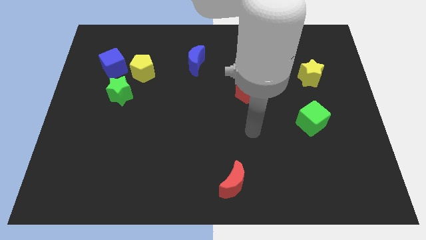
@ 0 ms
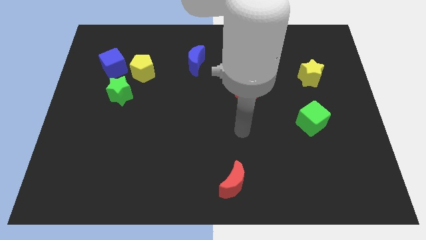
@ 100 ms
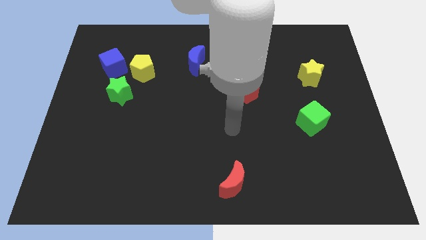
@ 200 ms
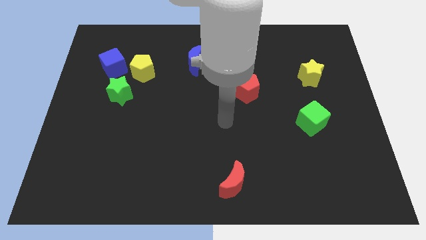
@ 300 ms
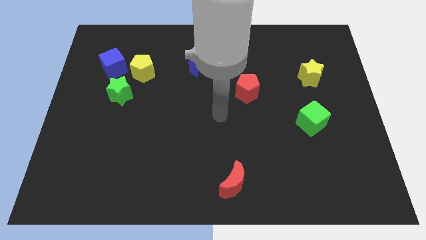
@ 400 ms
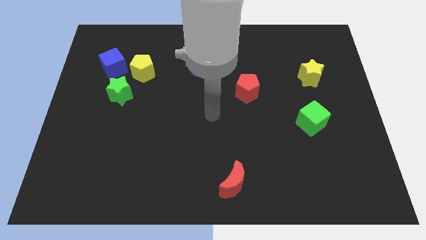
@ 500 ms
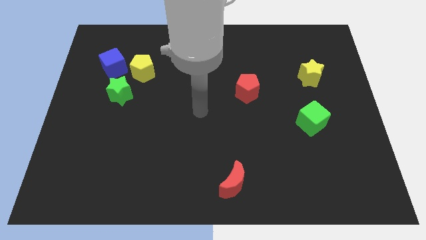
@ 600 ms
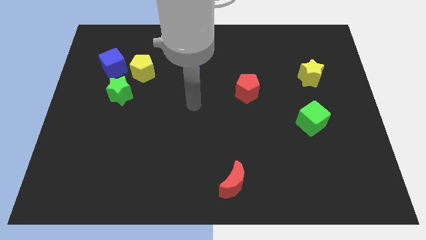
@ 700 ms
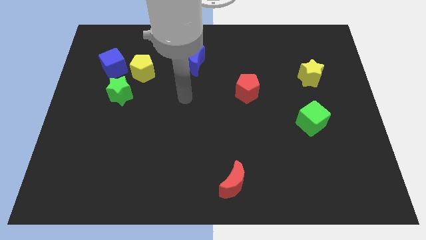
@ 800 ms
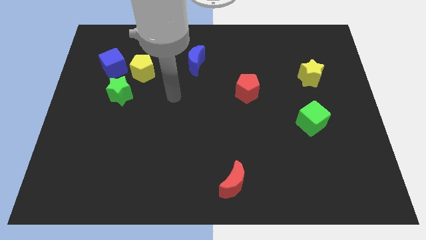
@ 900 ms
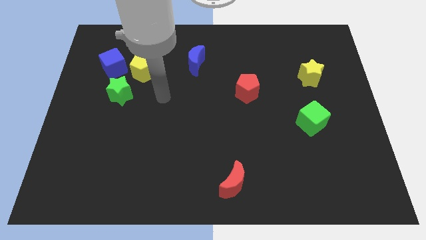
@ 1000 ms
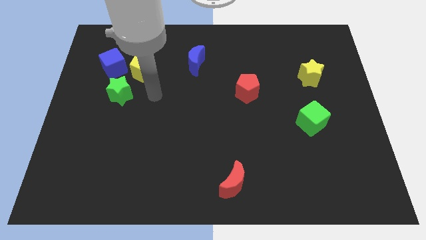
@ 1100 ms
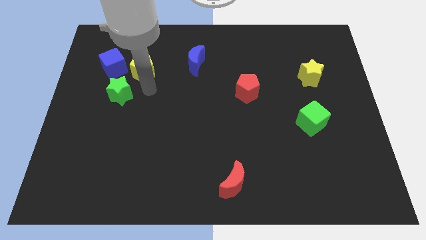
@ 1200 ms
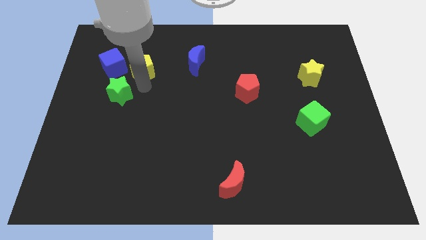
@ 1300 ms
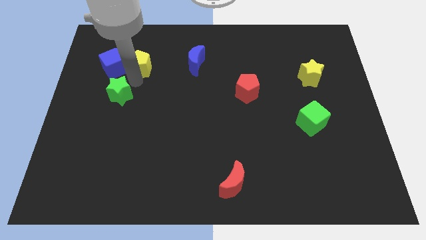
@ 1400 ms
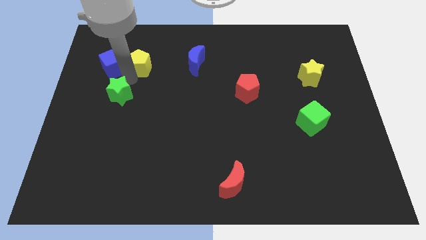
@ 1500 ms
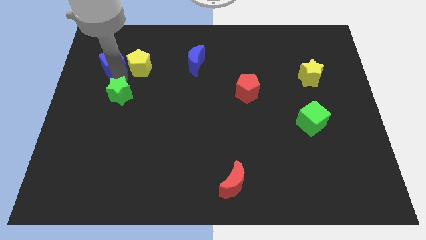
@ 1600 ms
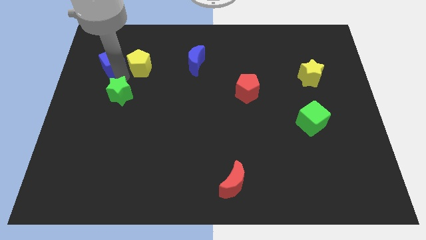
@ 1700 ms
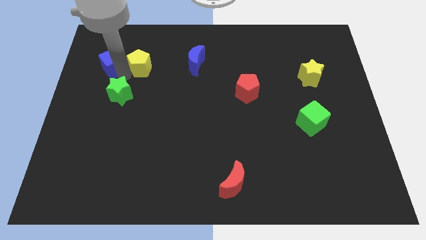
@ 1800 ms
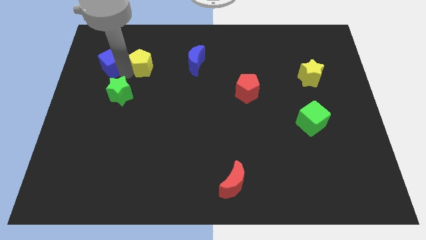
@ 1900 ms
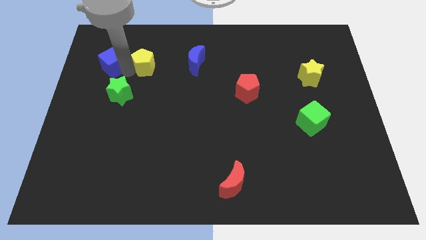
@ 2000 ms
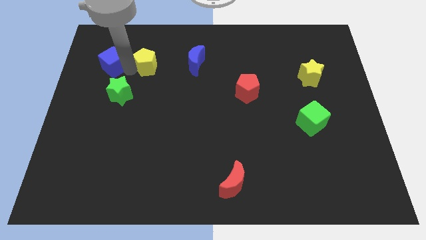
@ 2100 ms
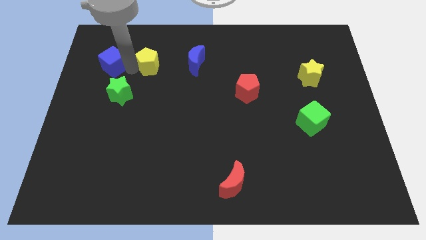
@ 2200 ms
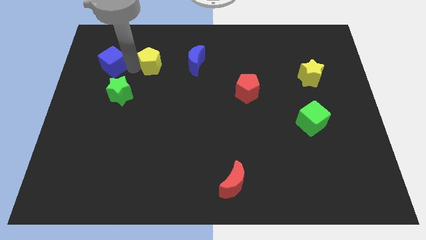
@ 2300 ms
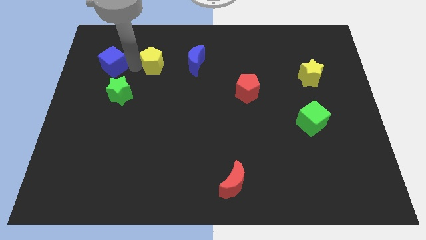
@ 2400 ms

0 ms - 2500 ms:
separate the yellow pentagon from the blue cube and green star

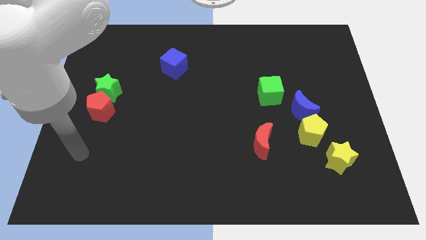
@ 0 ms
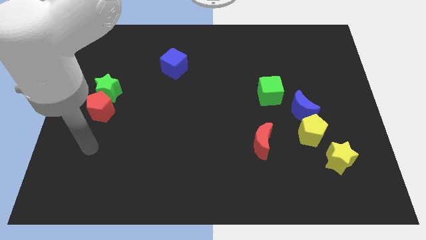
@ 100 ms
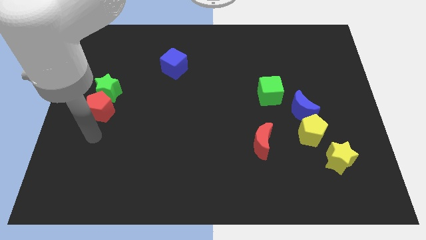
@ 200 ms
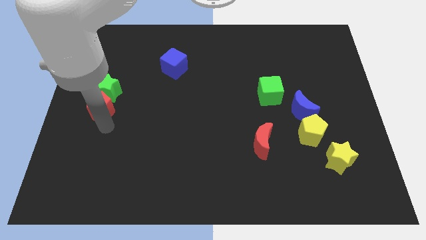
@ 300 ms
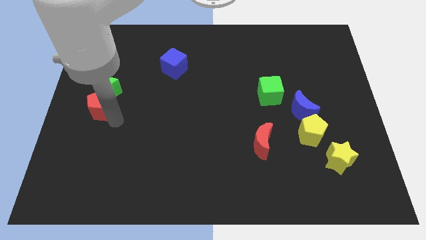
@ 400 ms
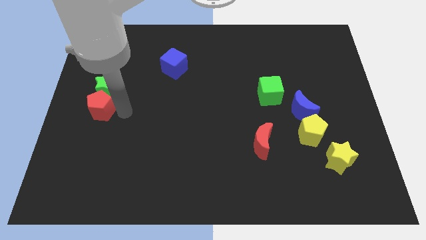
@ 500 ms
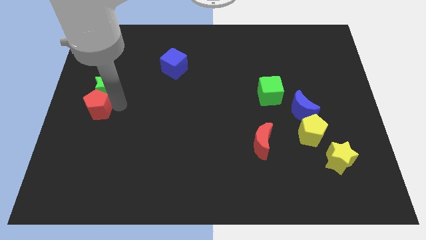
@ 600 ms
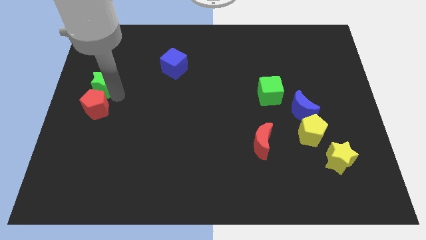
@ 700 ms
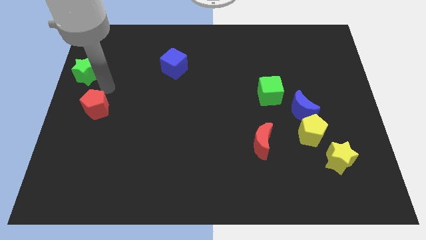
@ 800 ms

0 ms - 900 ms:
separate the red pentagon from the green star

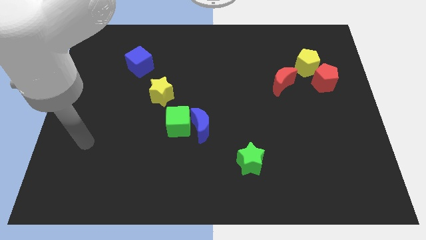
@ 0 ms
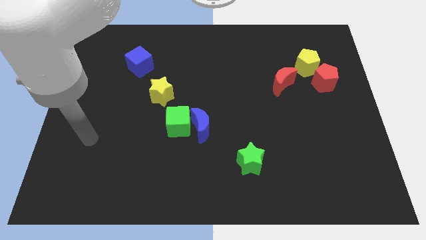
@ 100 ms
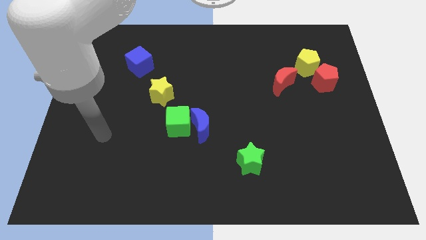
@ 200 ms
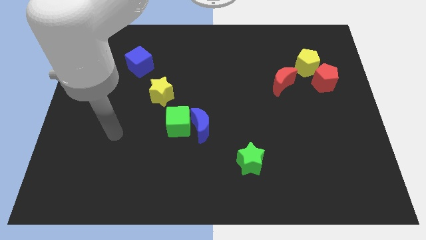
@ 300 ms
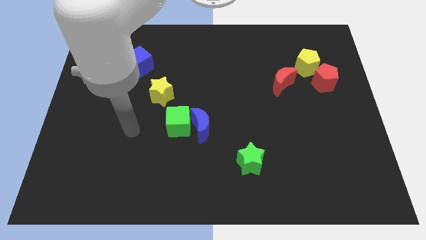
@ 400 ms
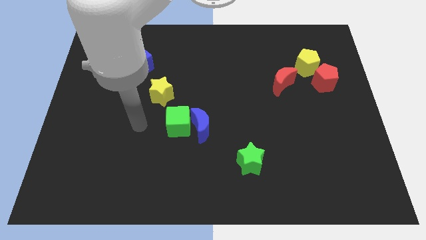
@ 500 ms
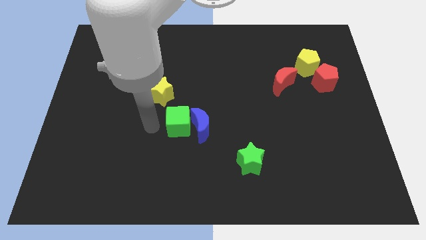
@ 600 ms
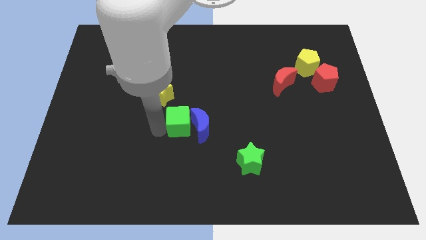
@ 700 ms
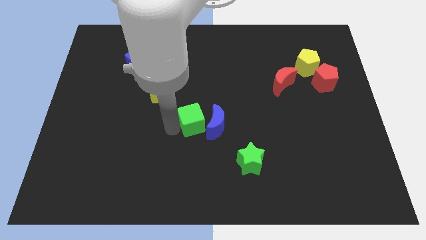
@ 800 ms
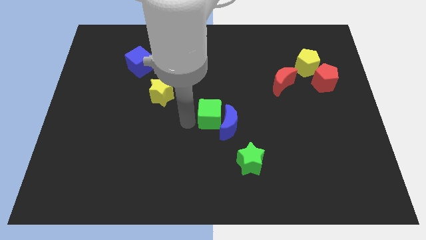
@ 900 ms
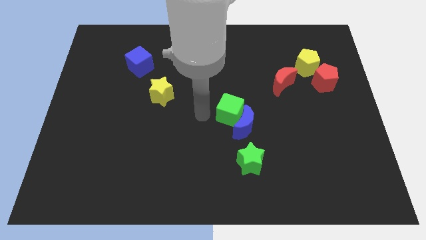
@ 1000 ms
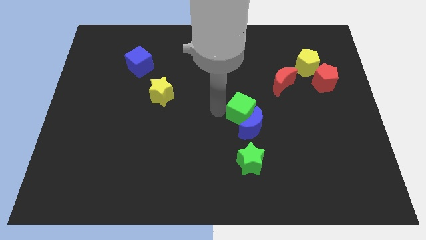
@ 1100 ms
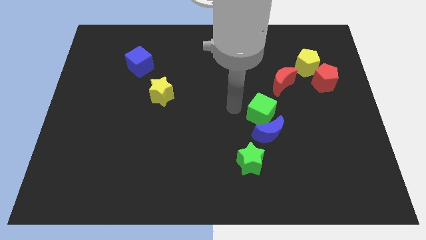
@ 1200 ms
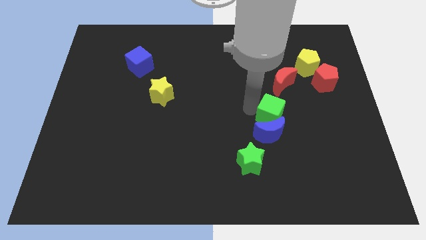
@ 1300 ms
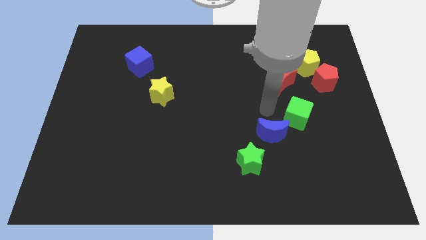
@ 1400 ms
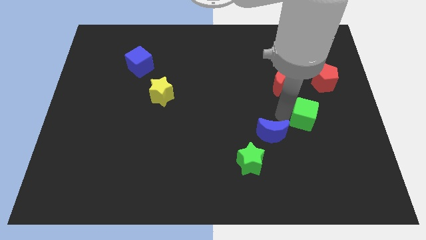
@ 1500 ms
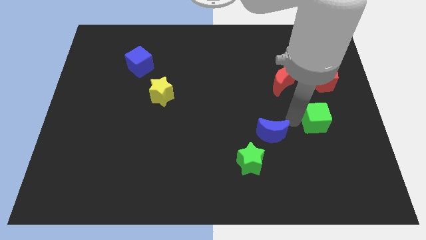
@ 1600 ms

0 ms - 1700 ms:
separate the blue moon from the green cube

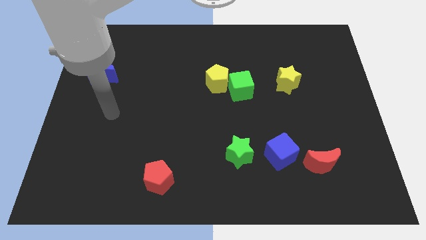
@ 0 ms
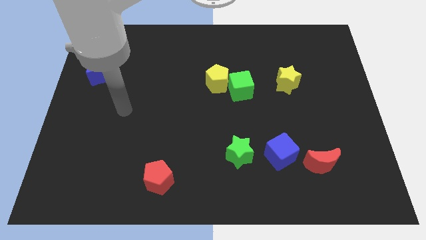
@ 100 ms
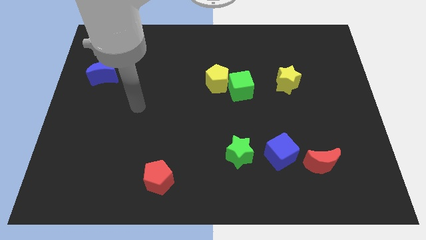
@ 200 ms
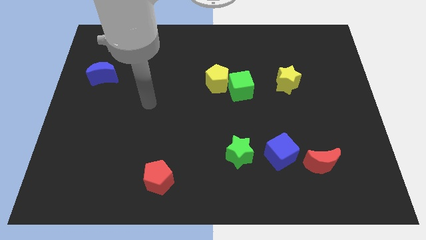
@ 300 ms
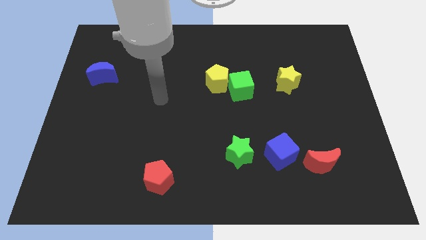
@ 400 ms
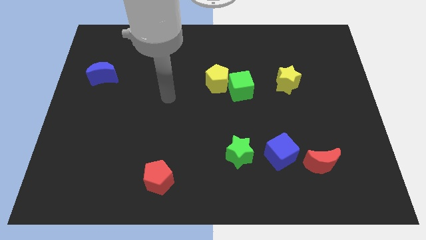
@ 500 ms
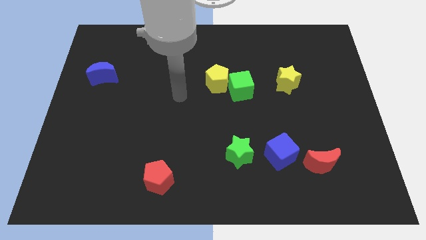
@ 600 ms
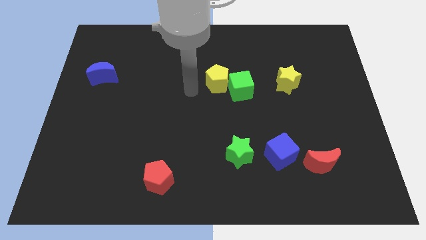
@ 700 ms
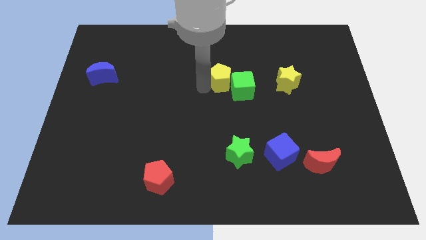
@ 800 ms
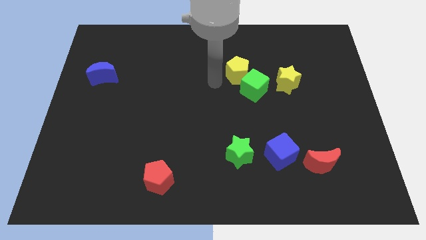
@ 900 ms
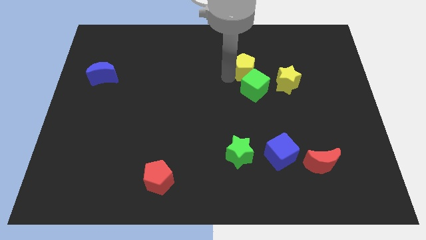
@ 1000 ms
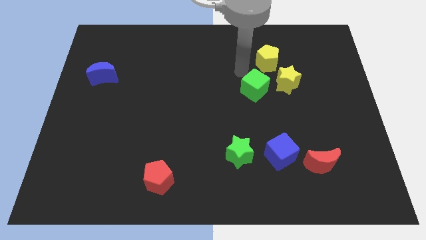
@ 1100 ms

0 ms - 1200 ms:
move the green cube away from the yellow pentagon

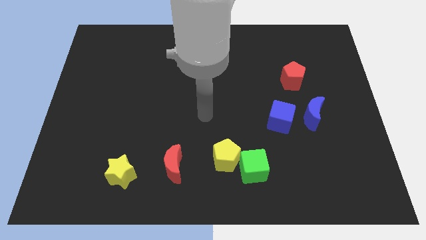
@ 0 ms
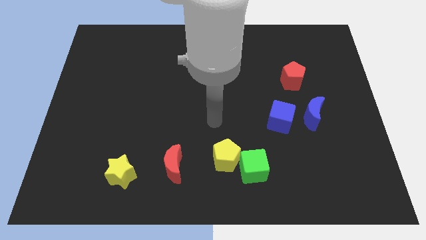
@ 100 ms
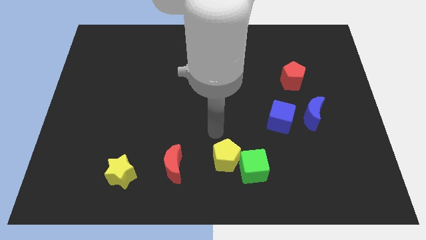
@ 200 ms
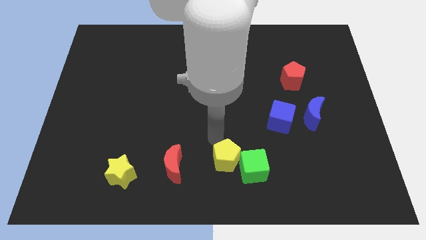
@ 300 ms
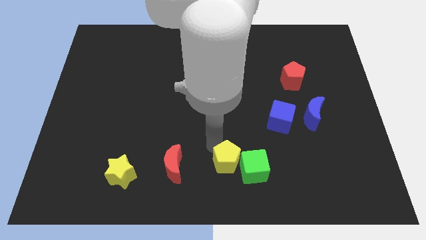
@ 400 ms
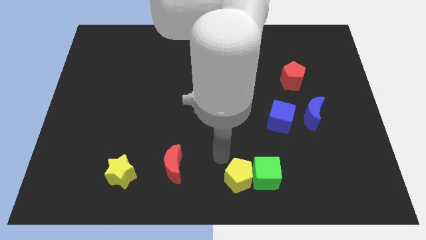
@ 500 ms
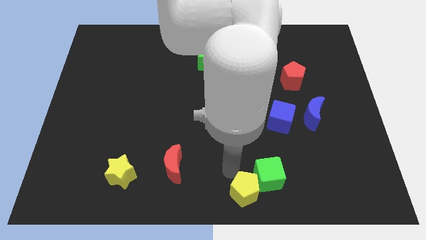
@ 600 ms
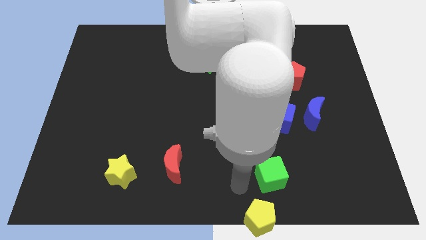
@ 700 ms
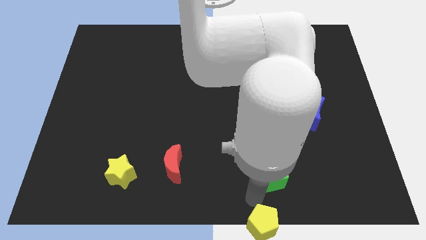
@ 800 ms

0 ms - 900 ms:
pull the green cube apart from the yellow pentagon

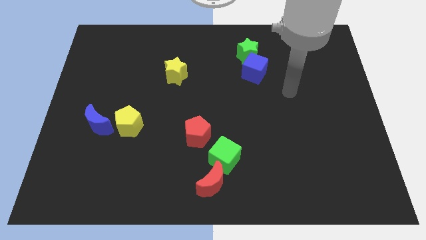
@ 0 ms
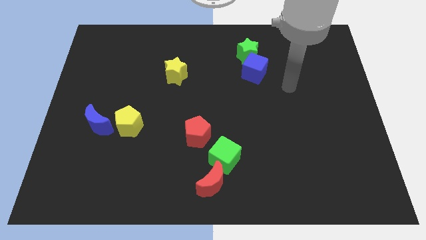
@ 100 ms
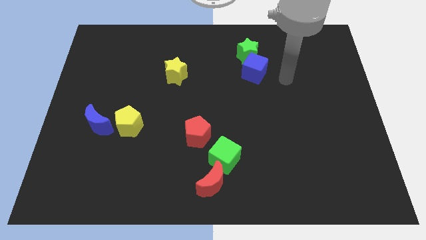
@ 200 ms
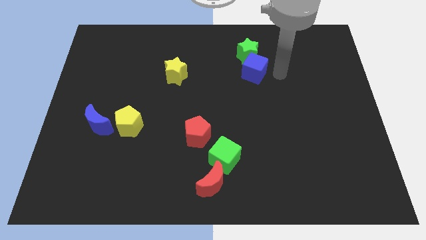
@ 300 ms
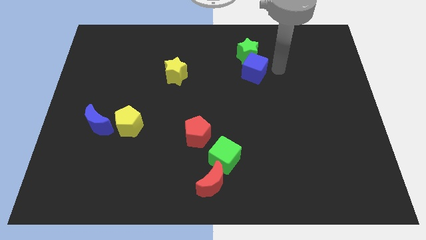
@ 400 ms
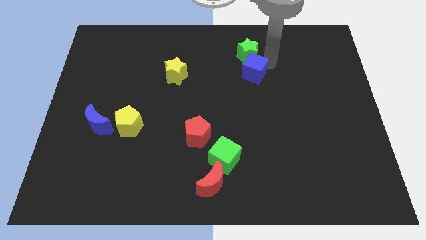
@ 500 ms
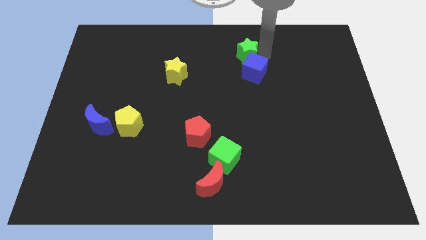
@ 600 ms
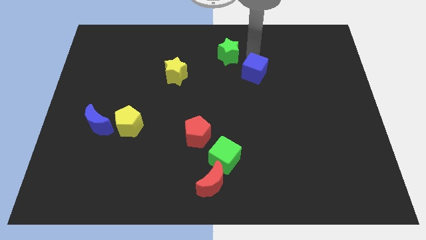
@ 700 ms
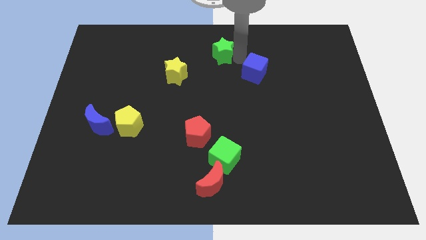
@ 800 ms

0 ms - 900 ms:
move the blue cube away from the green star

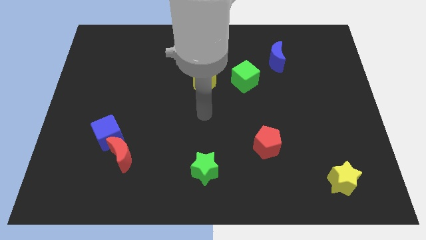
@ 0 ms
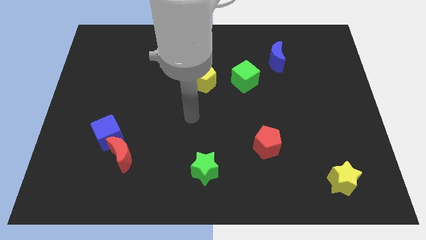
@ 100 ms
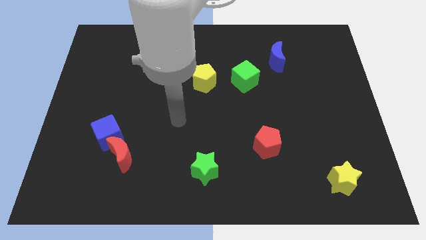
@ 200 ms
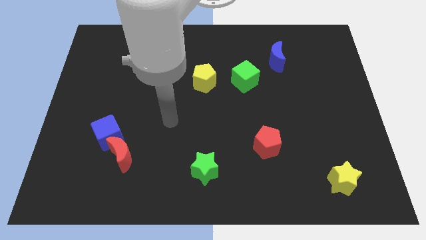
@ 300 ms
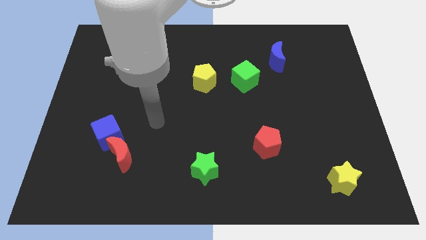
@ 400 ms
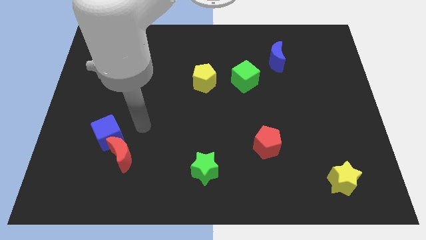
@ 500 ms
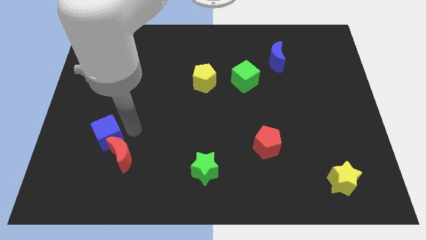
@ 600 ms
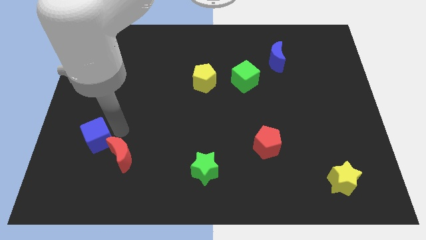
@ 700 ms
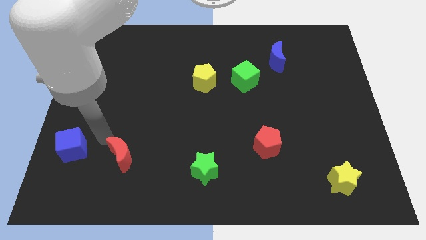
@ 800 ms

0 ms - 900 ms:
move the red moon away from the blue cube

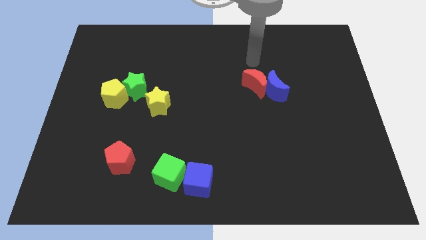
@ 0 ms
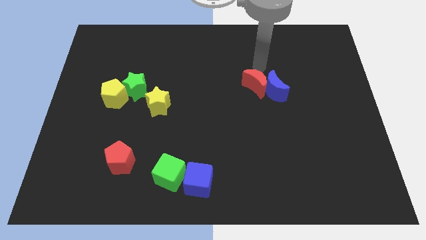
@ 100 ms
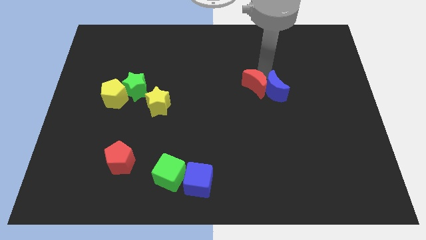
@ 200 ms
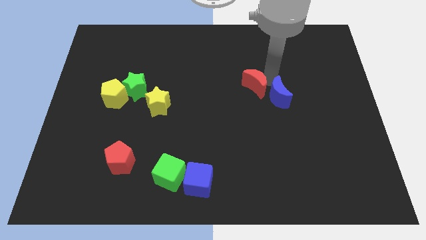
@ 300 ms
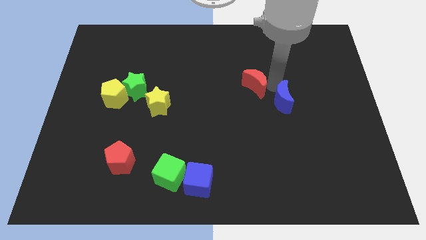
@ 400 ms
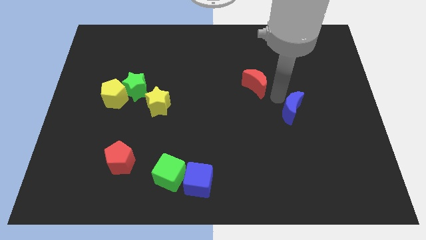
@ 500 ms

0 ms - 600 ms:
move the red moon away from the blue moon
